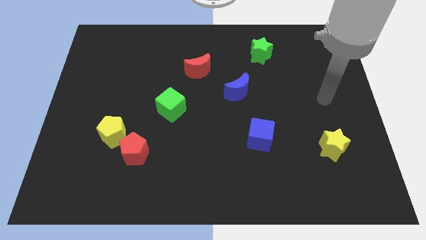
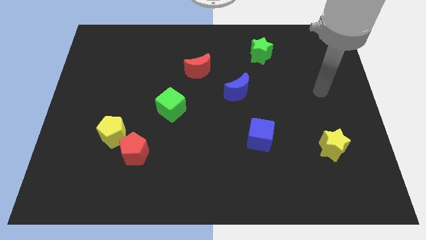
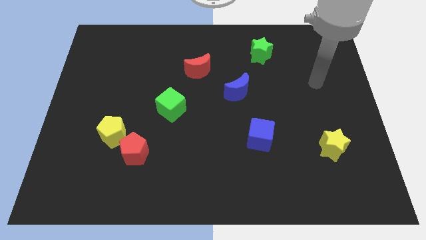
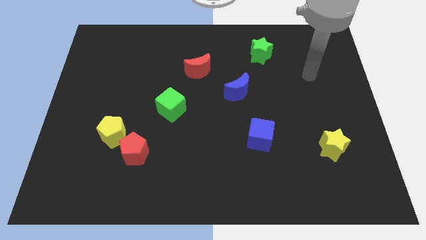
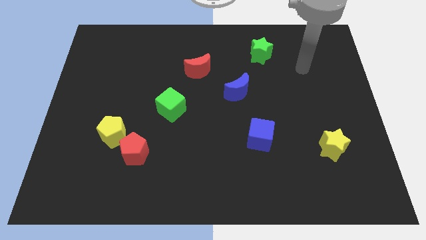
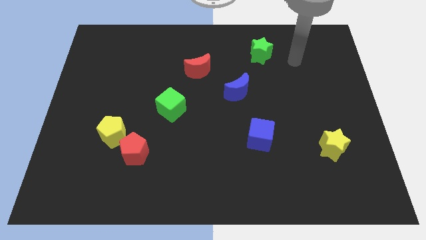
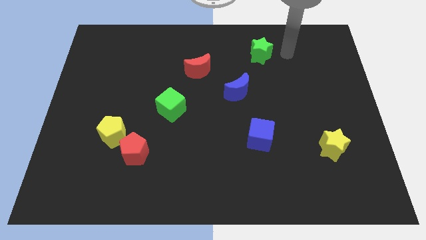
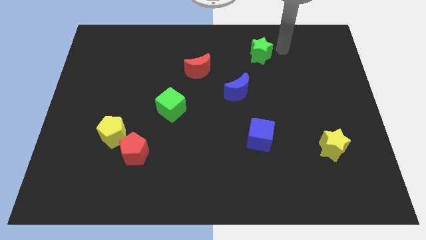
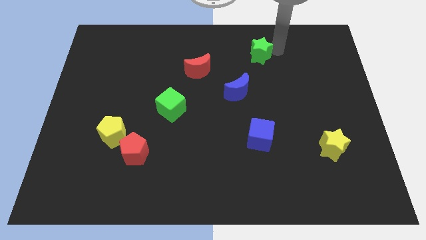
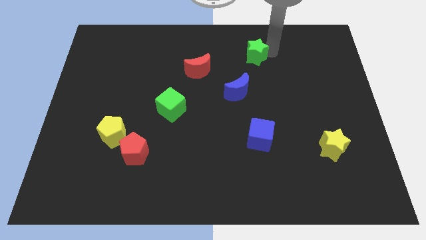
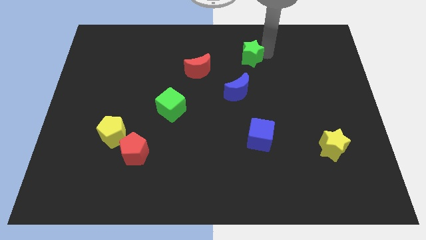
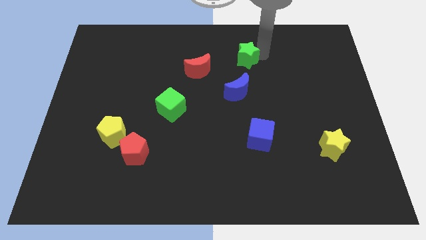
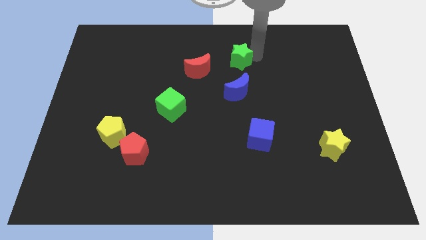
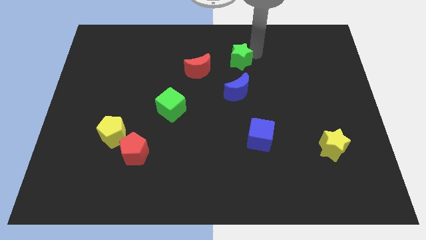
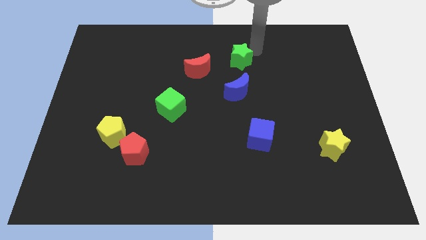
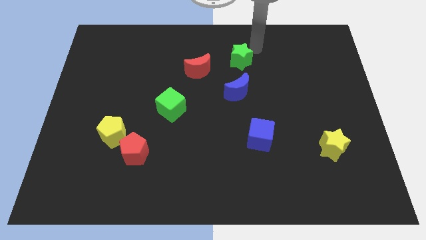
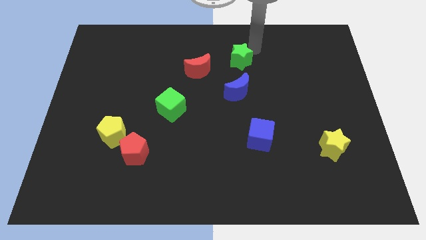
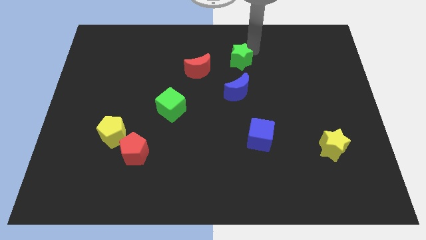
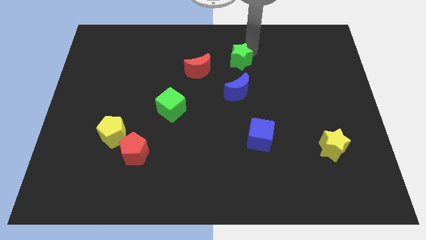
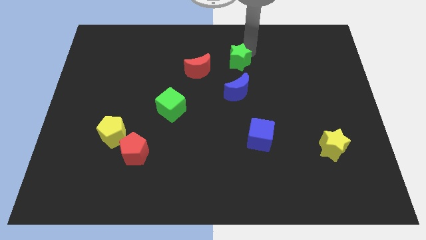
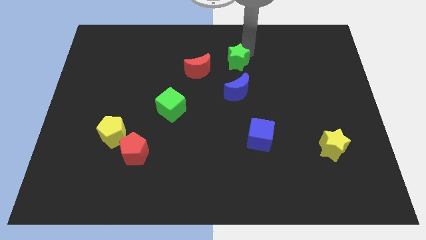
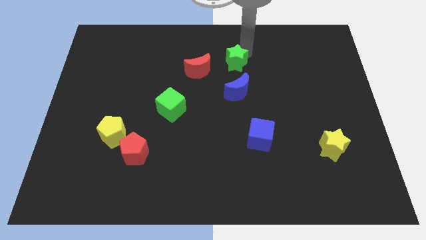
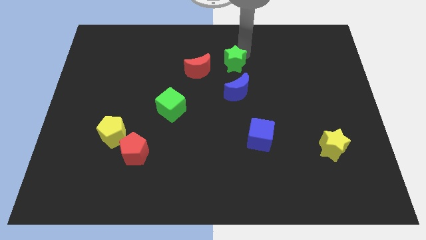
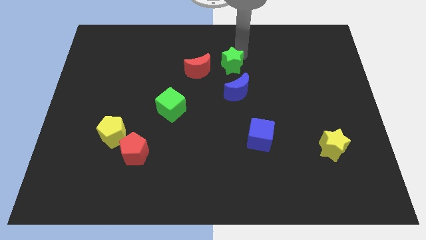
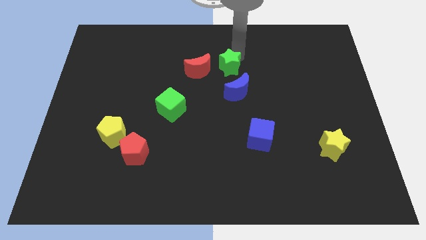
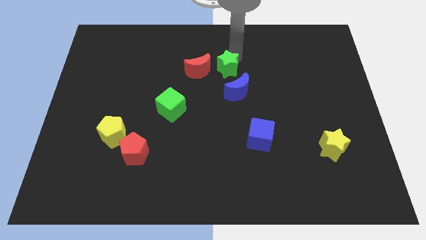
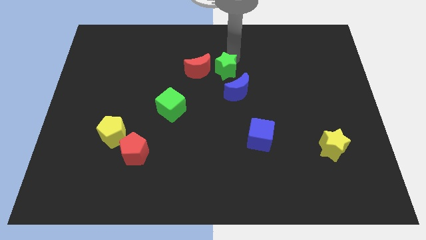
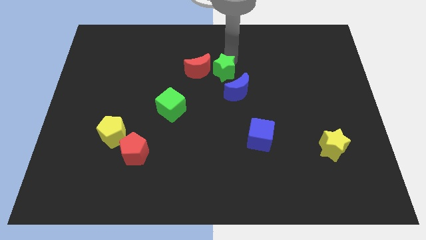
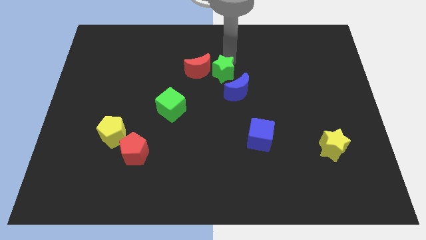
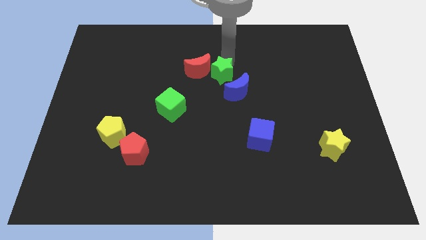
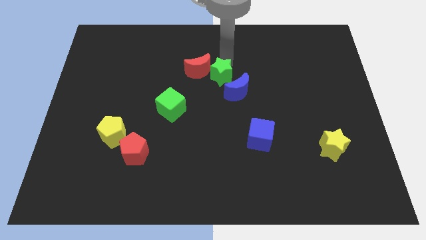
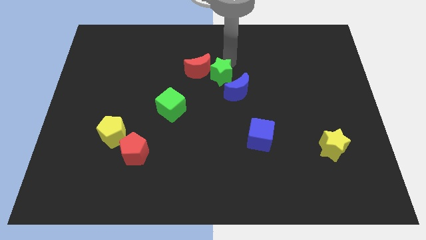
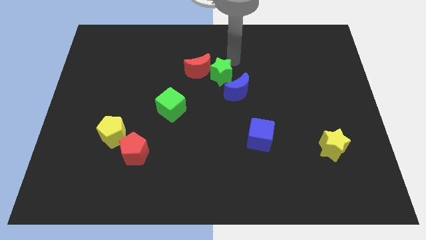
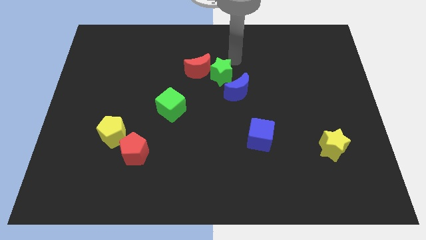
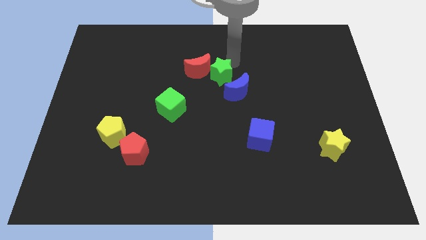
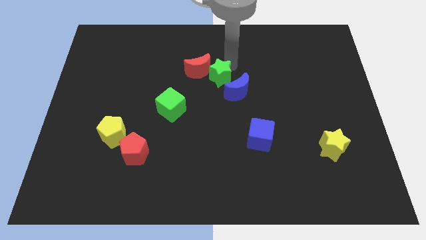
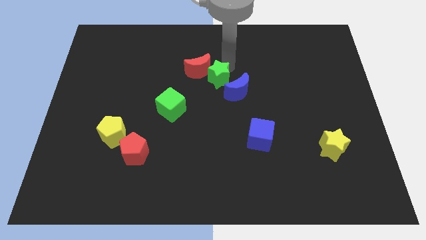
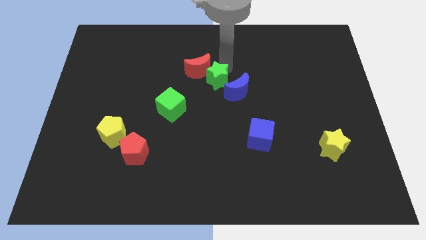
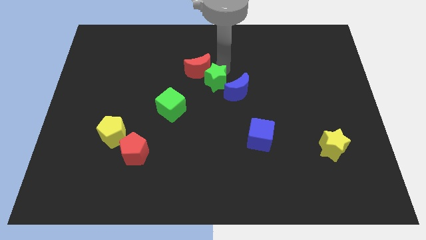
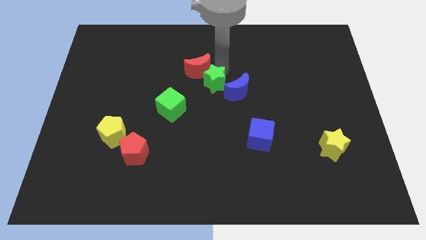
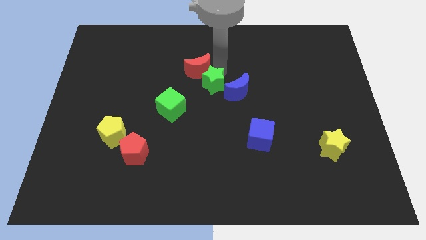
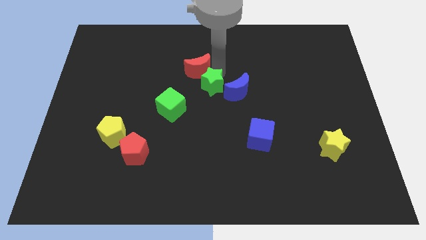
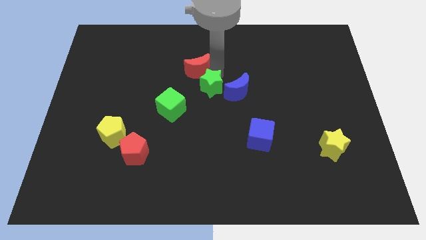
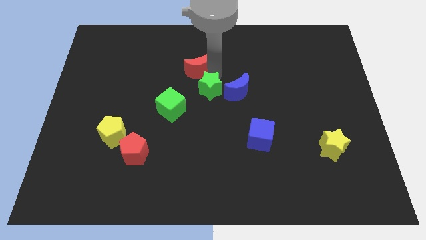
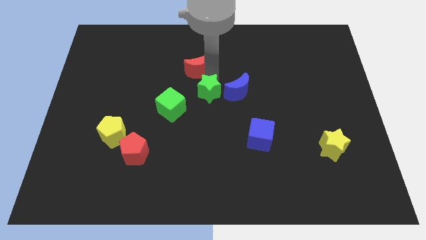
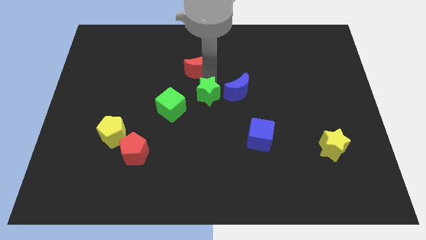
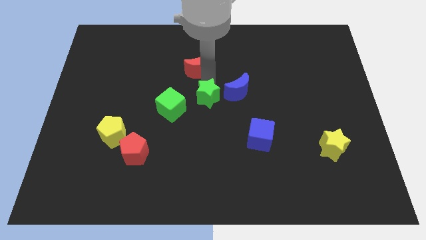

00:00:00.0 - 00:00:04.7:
push the green star down and left

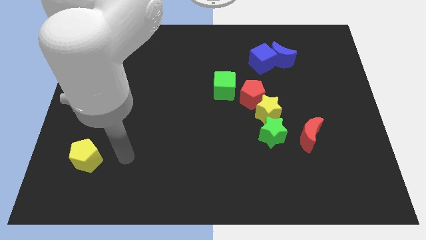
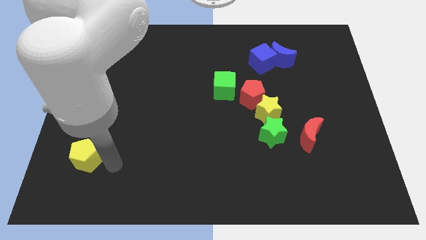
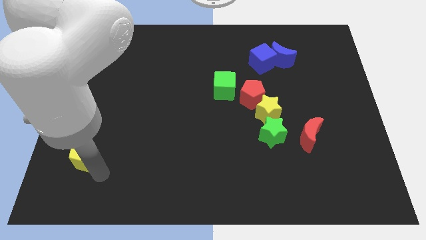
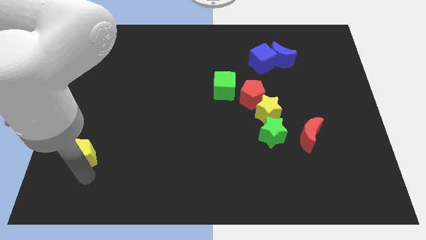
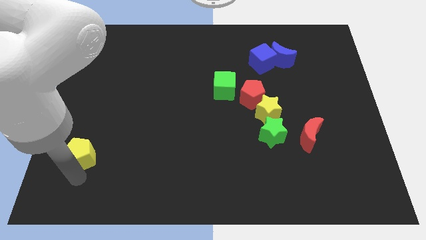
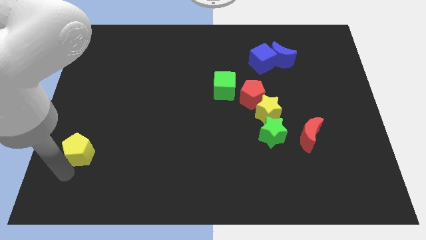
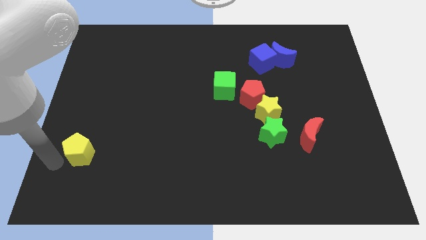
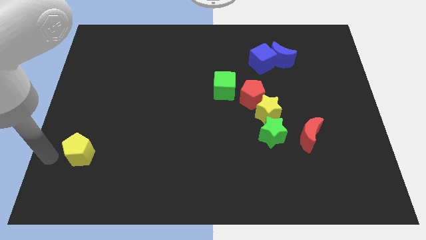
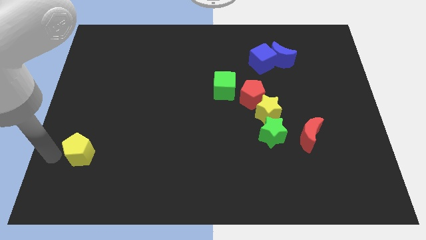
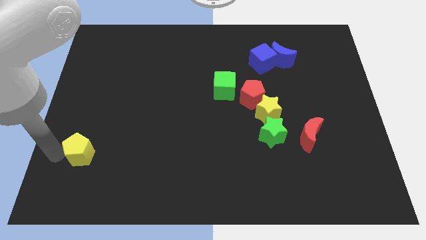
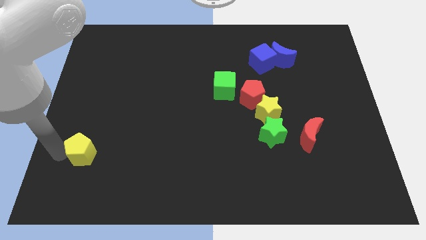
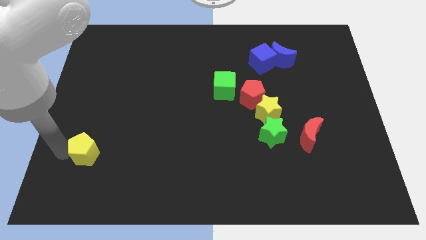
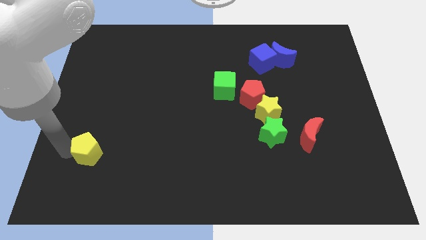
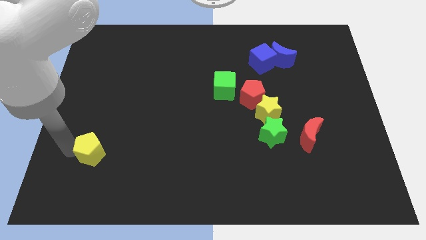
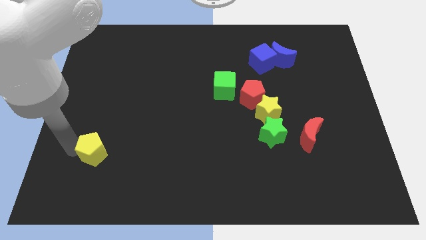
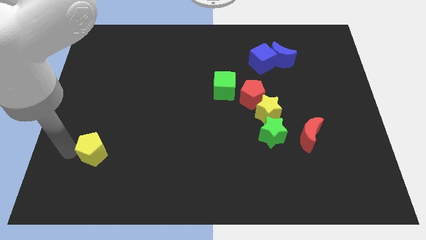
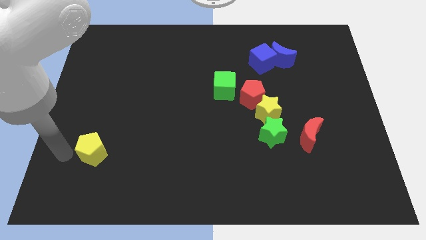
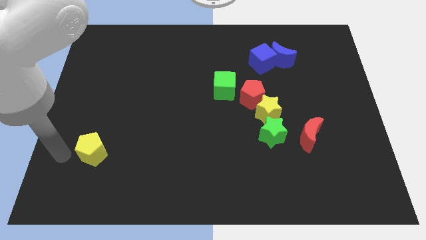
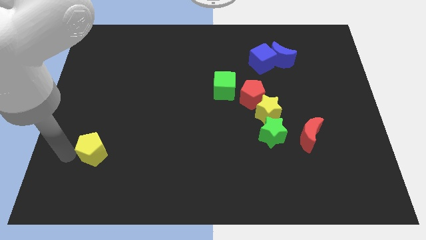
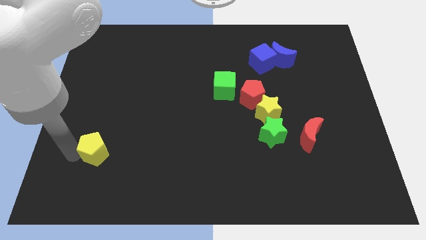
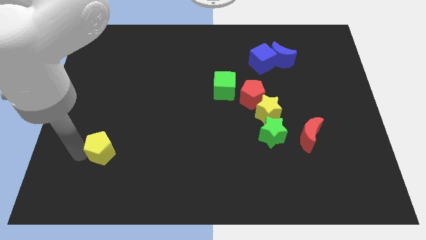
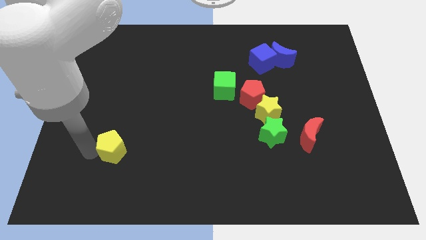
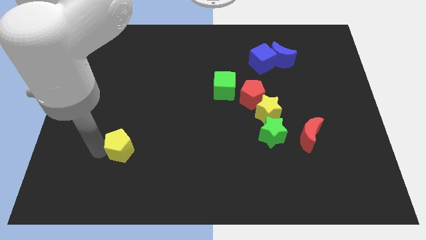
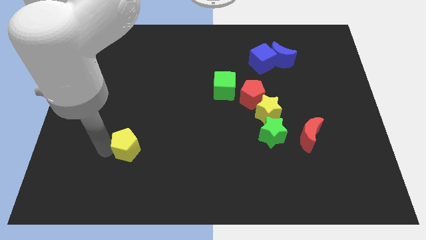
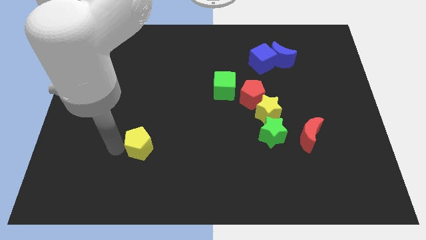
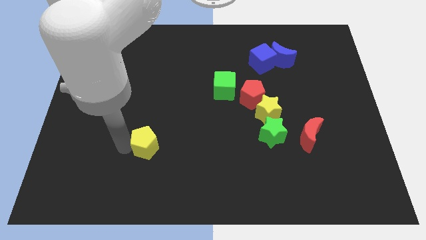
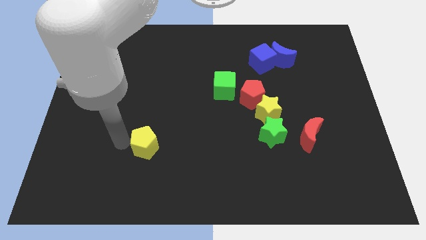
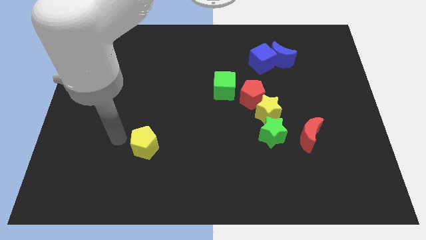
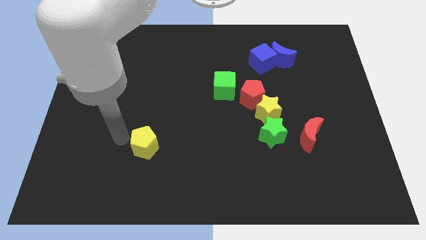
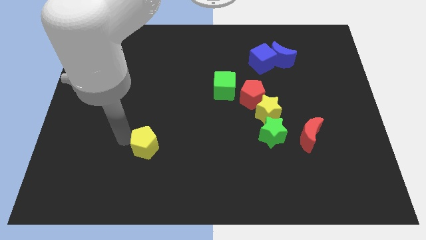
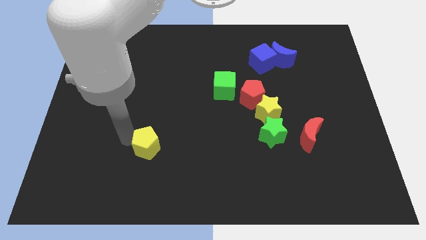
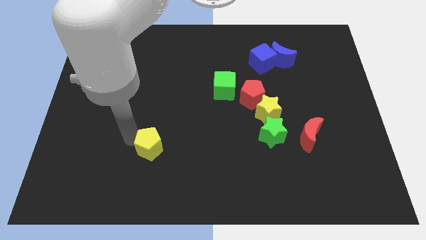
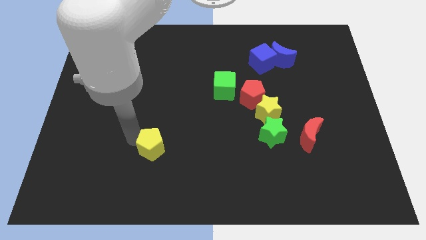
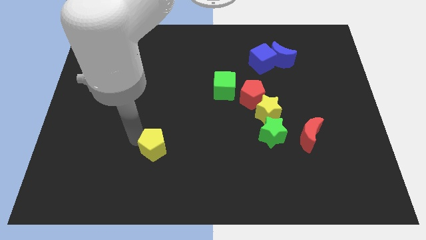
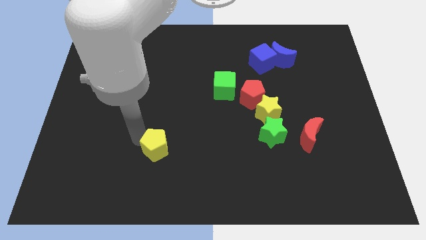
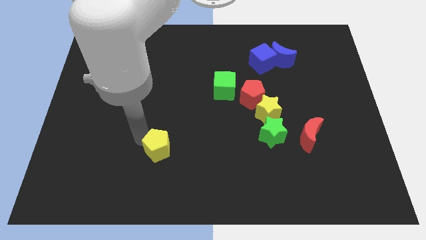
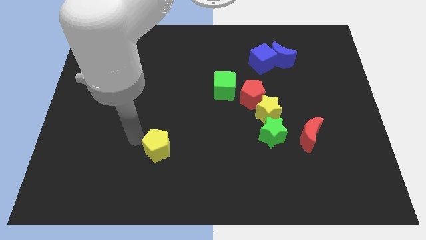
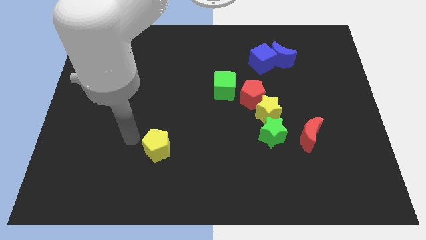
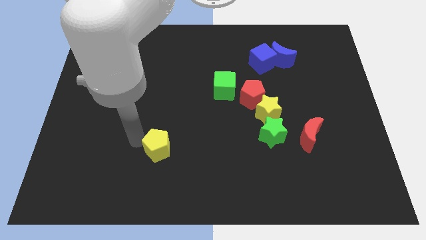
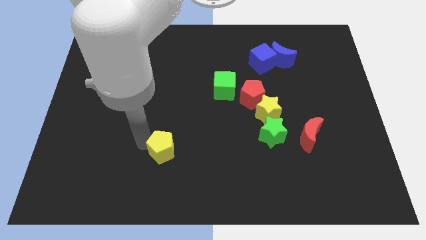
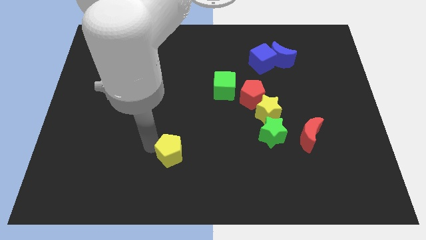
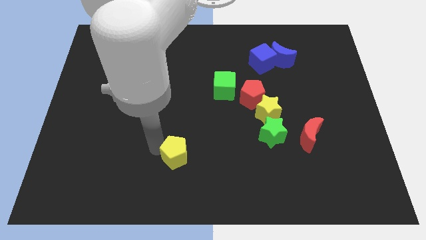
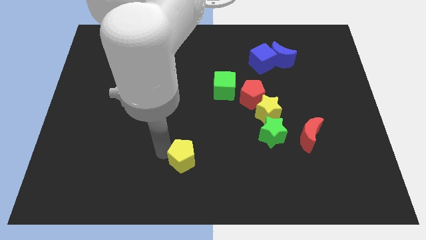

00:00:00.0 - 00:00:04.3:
move the yellow pentagon to the right
